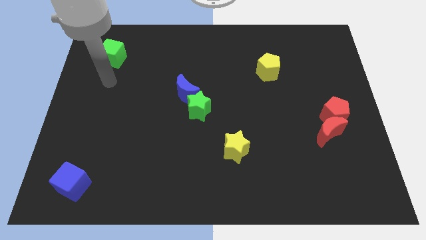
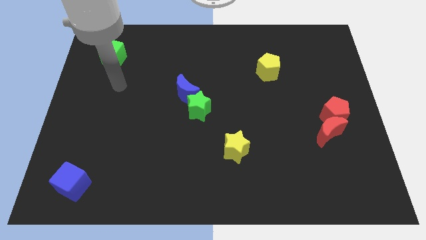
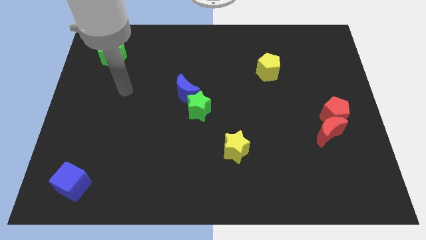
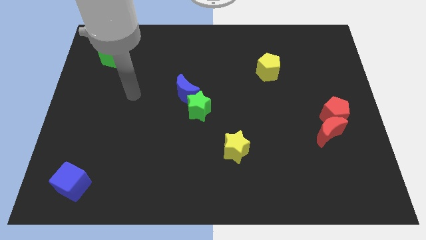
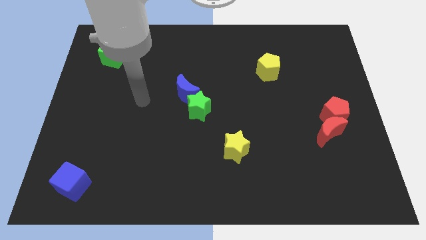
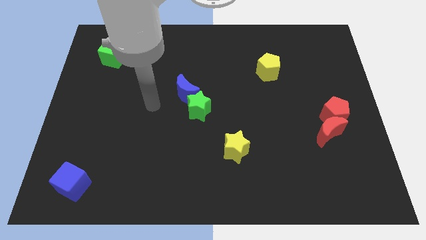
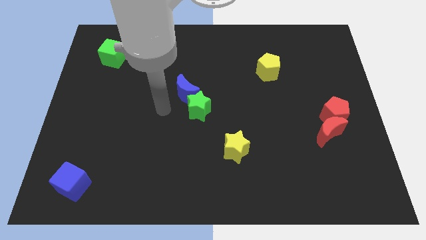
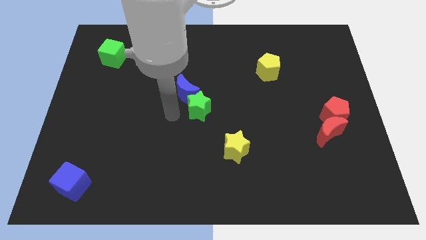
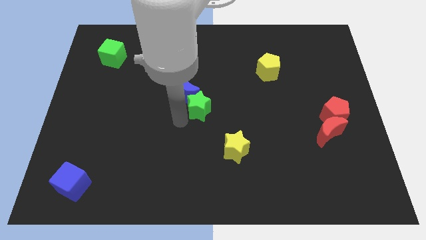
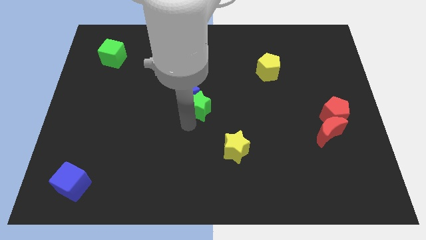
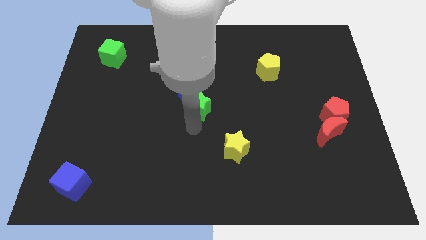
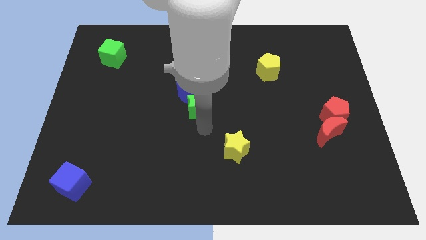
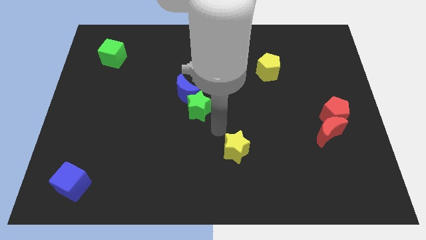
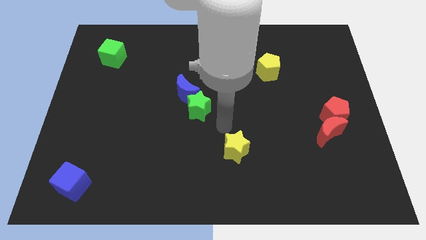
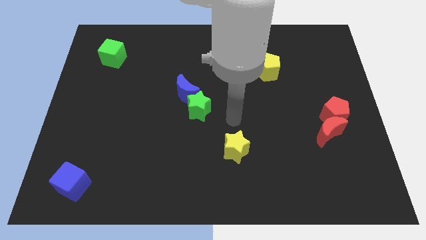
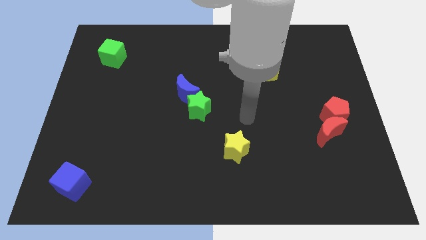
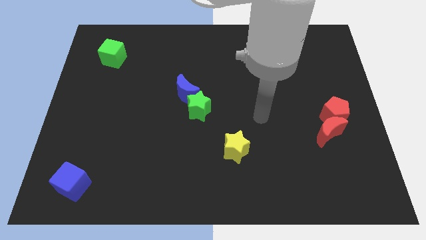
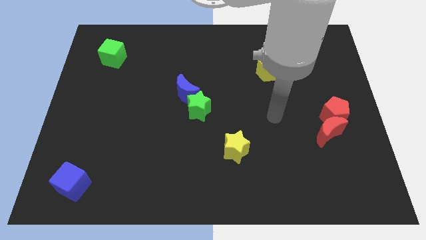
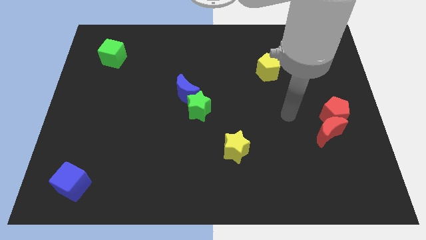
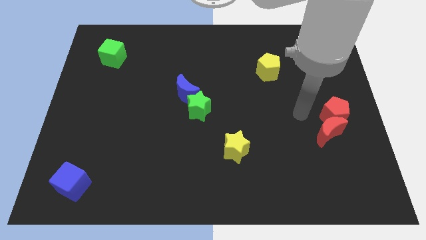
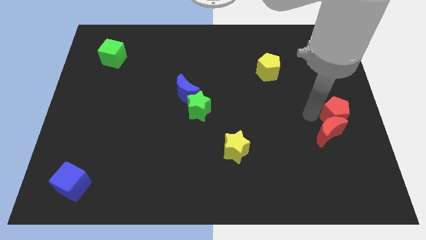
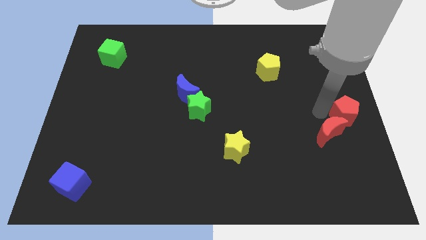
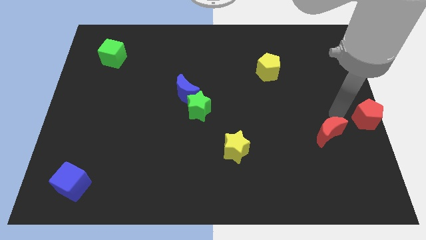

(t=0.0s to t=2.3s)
move the red moon away from the red pentagon

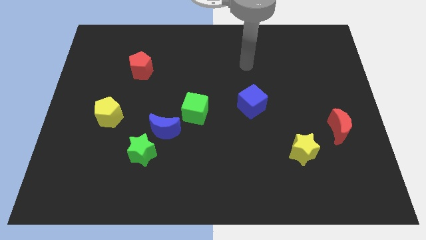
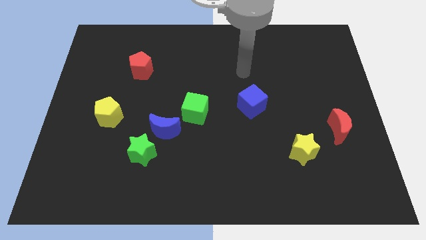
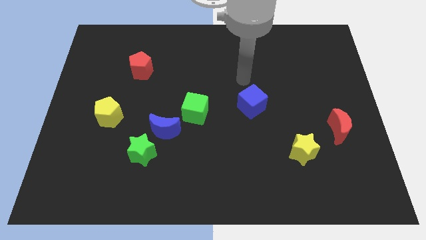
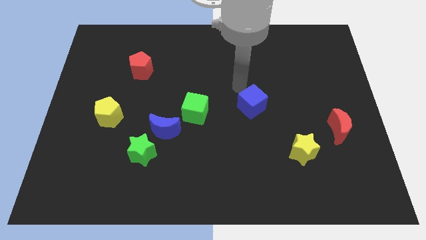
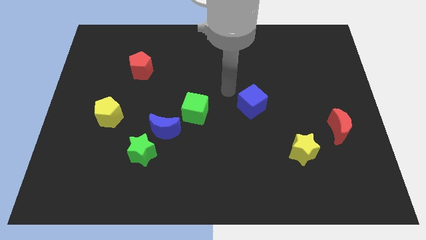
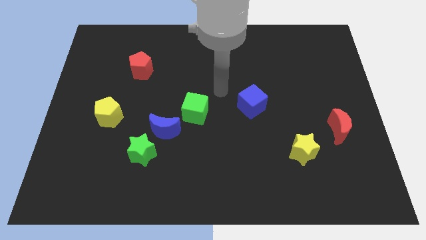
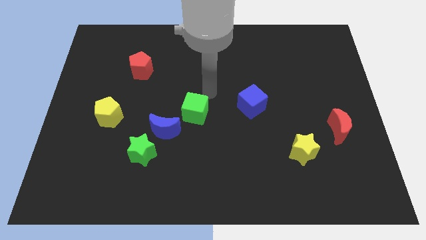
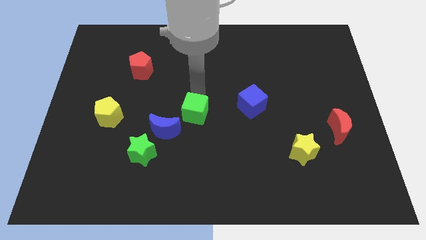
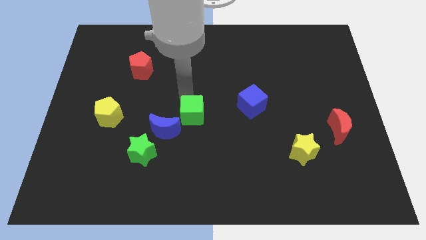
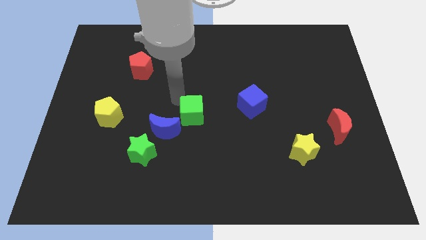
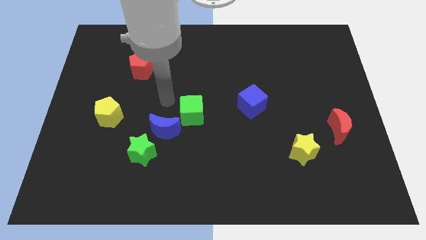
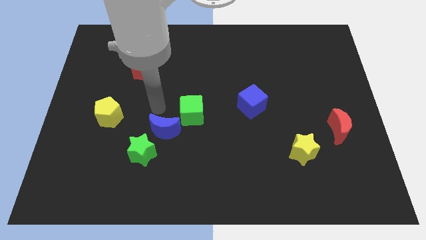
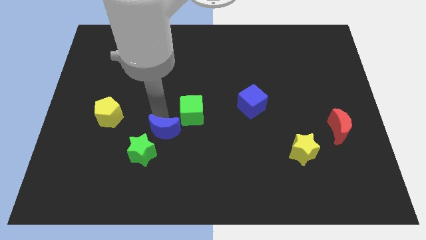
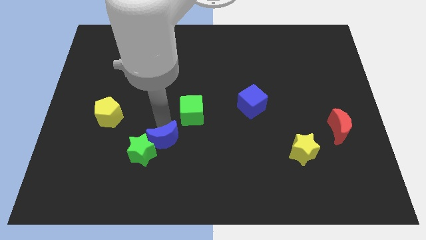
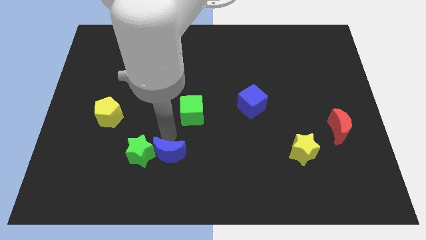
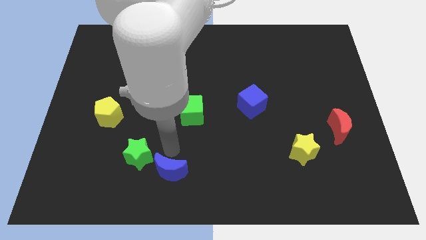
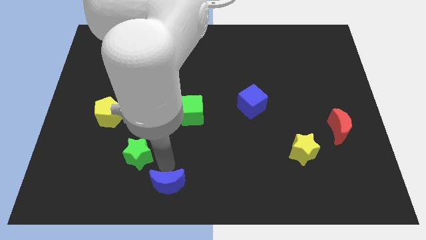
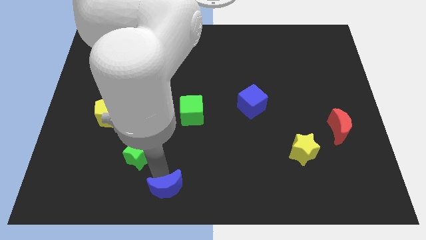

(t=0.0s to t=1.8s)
separate the green star from the blue moon

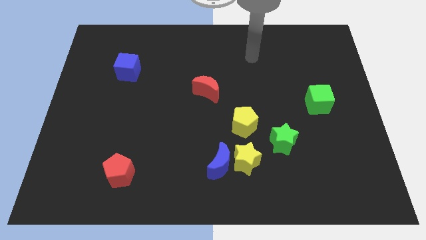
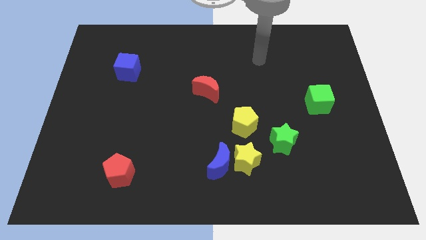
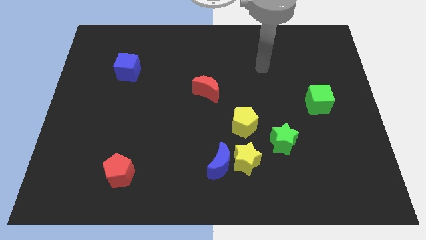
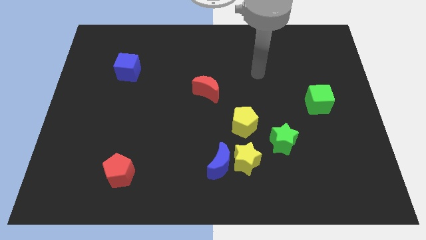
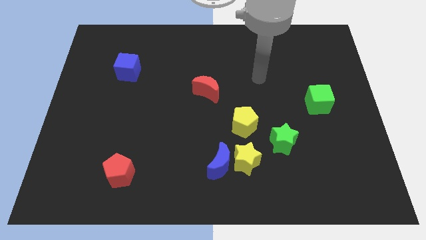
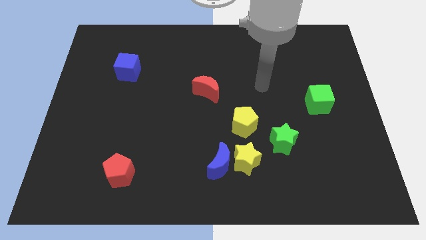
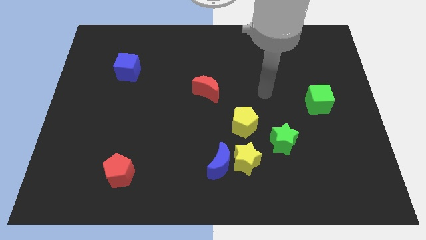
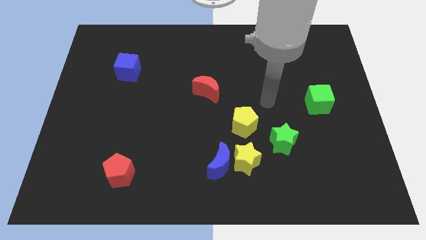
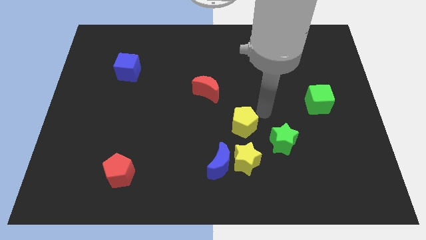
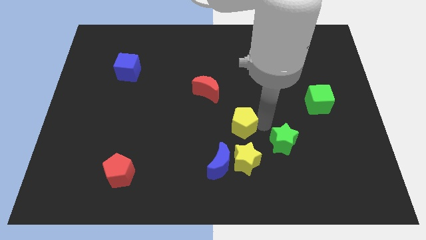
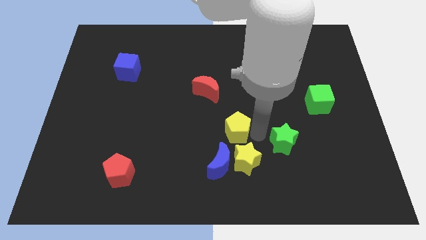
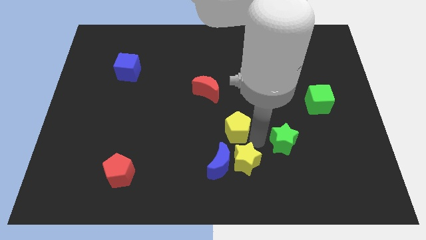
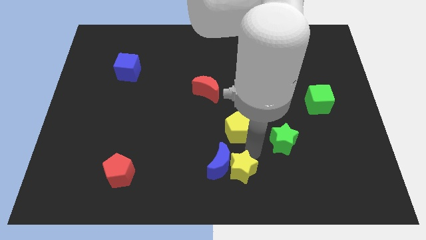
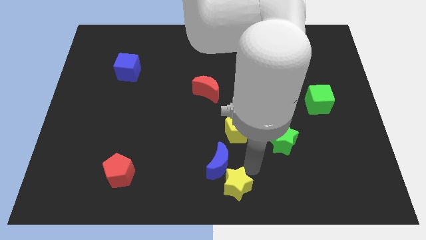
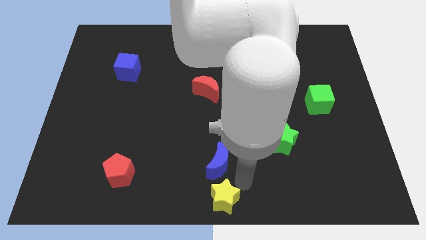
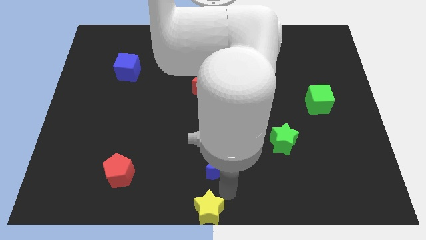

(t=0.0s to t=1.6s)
separate the blue moon from the yellow star

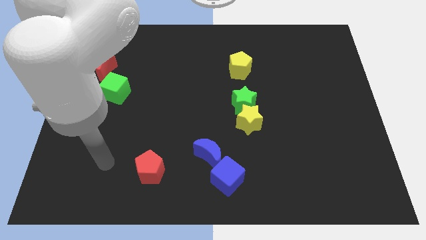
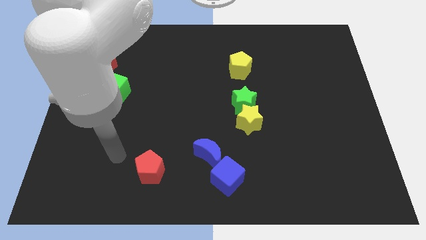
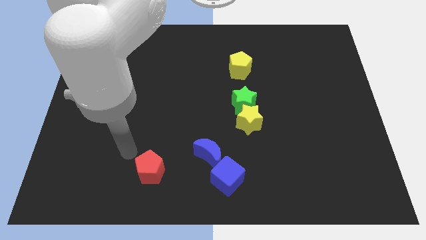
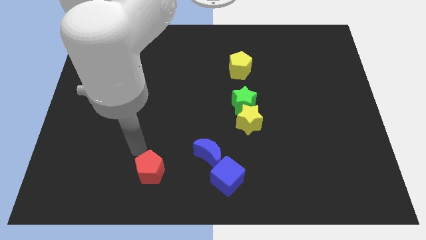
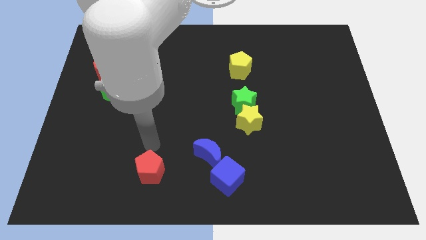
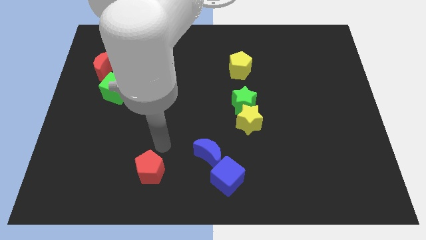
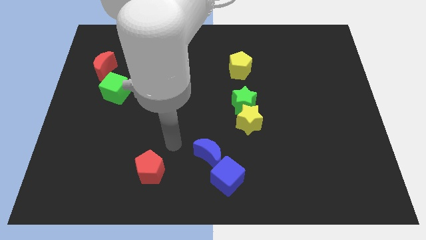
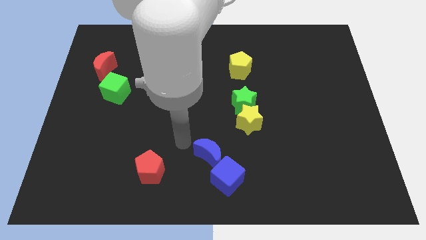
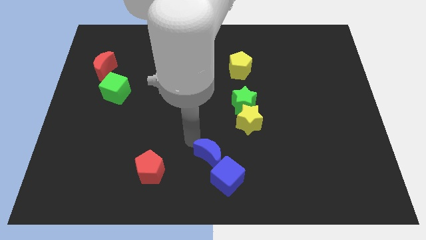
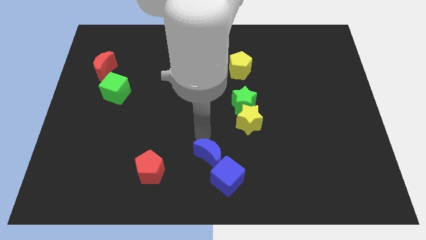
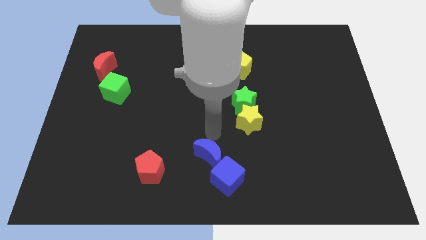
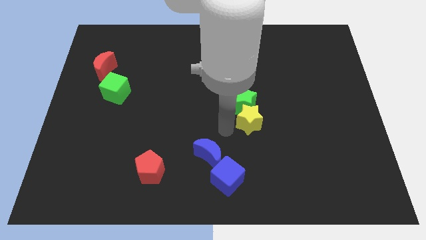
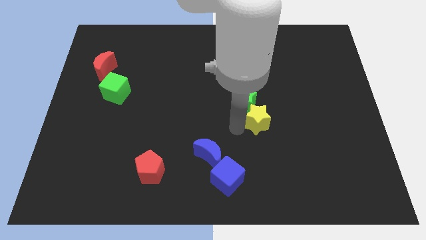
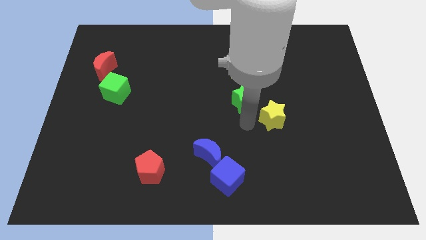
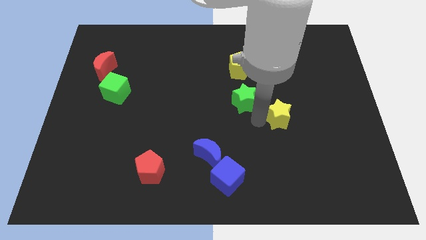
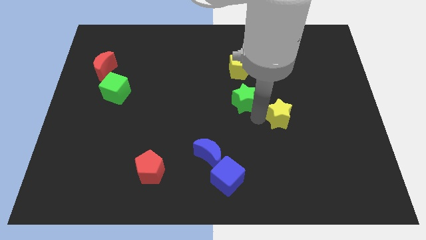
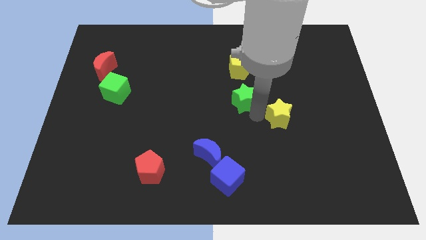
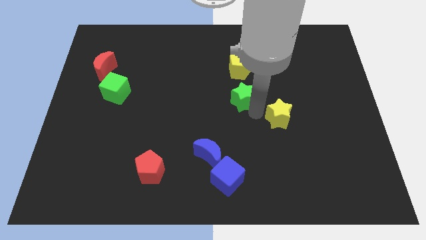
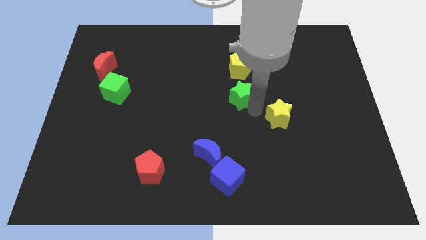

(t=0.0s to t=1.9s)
separate the green star from the yellow star

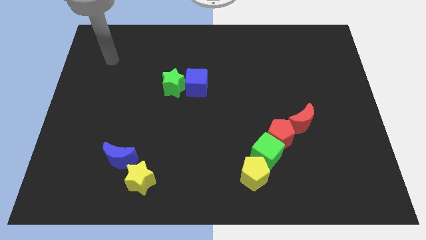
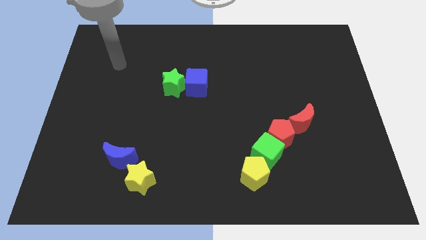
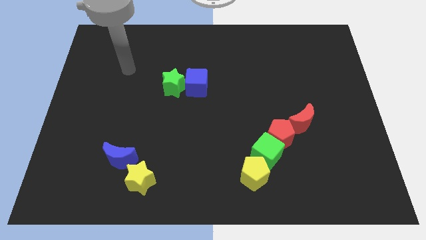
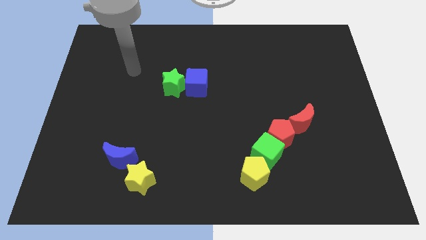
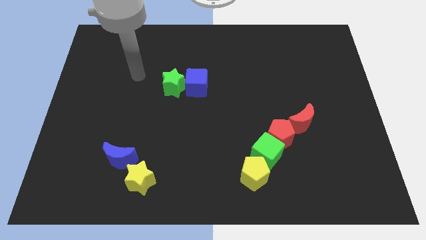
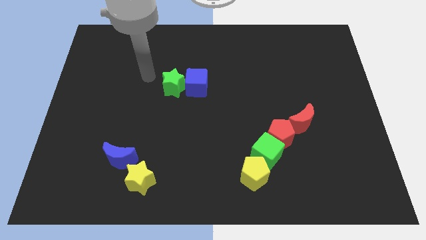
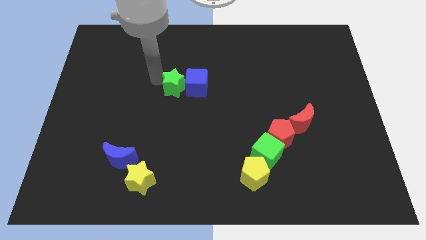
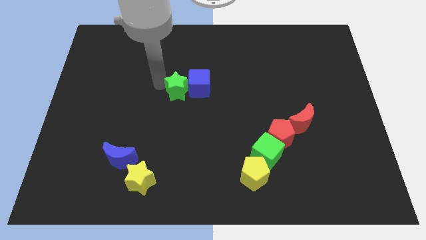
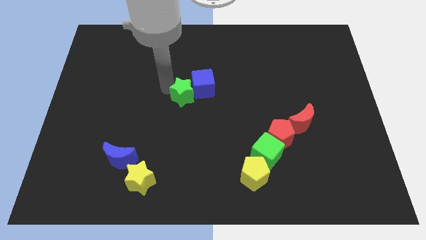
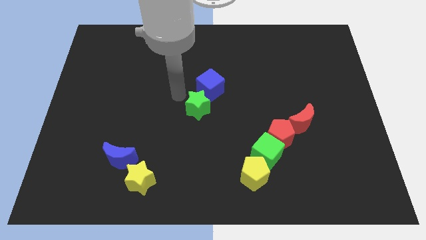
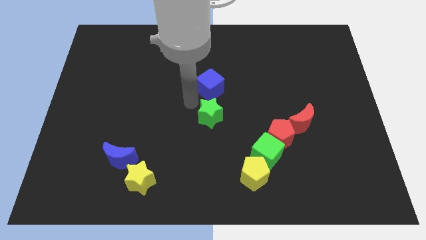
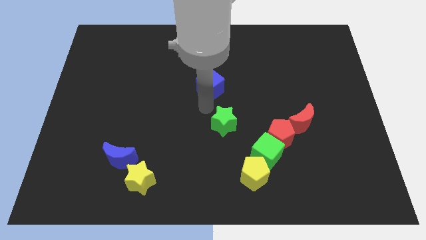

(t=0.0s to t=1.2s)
separate the blue cube from the green star

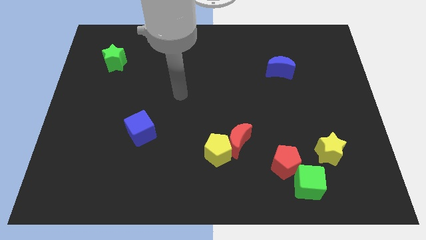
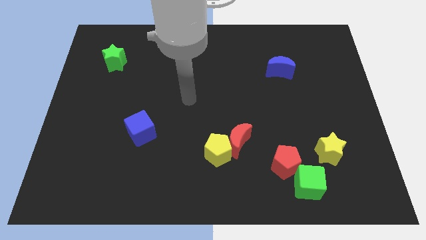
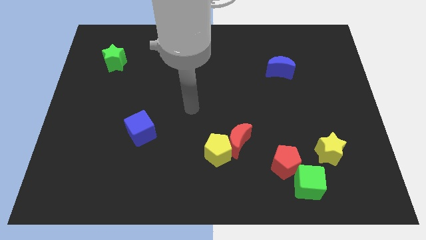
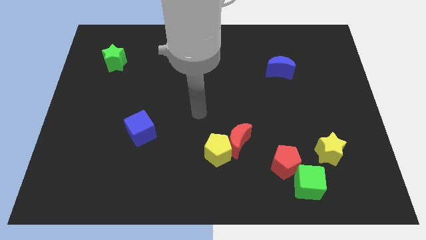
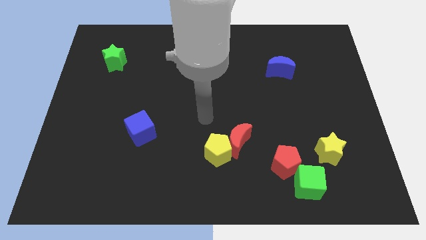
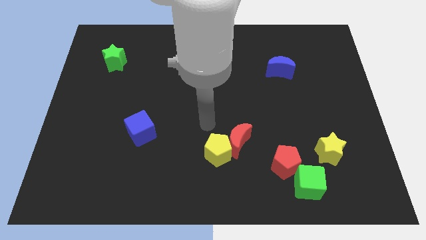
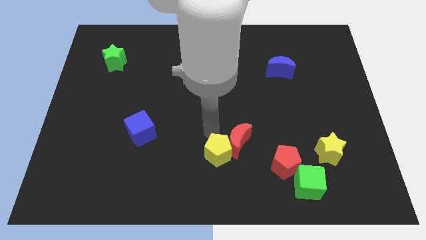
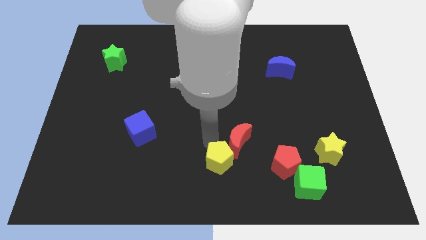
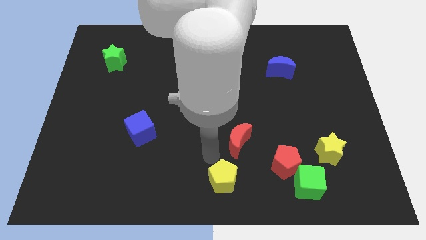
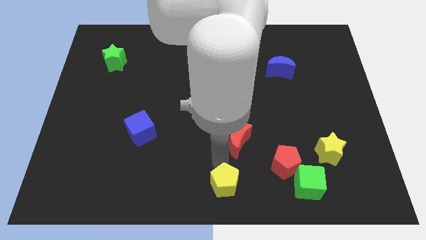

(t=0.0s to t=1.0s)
separate the red moon from the yellow pentagon
